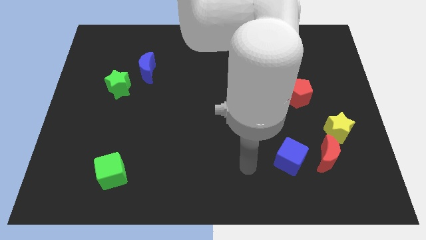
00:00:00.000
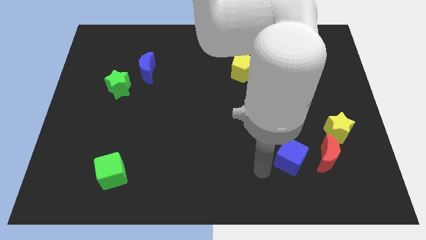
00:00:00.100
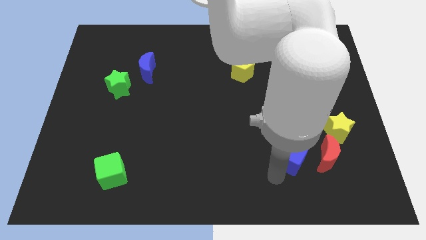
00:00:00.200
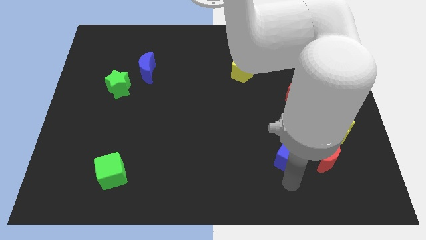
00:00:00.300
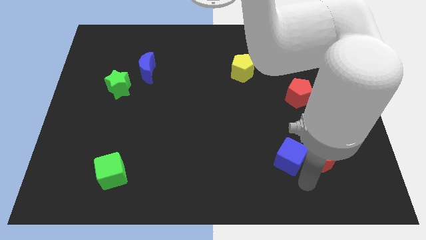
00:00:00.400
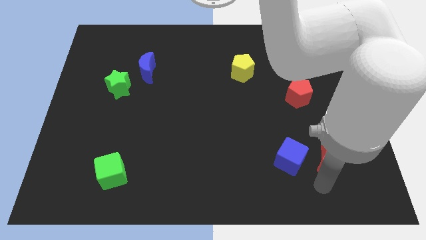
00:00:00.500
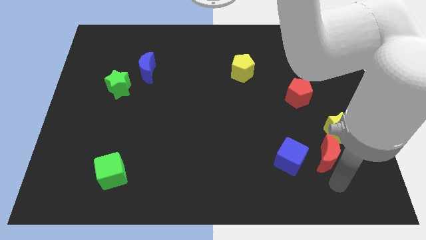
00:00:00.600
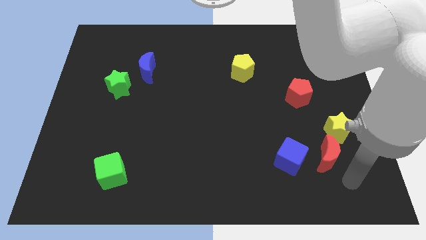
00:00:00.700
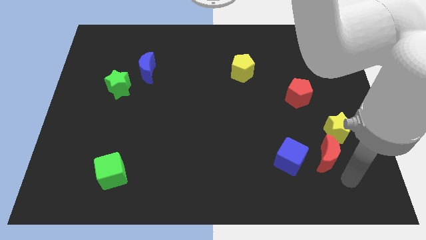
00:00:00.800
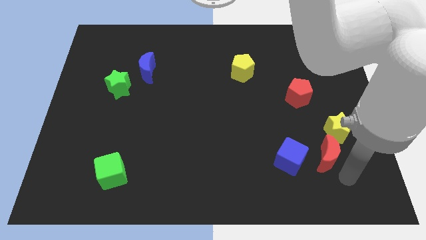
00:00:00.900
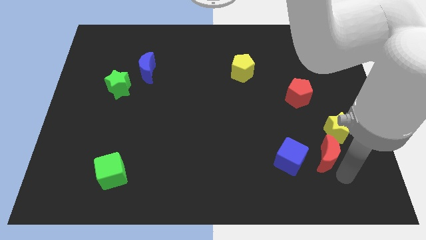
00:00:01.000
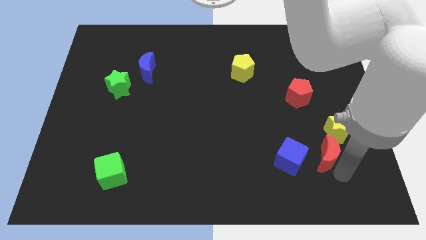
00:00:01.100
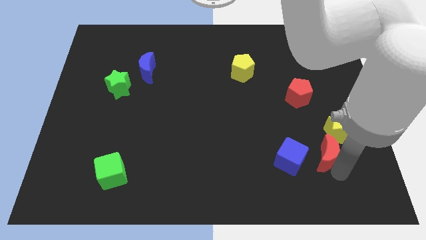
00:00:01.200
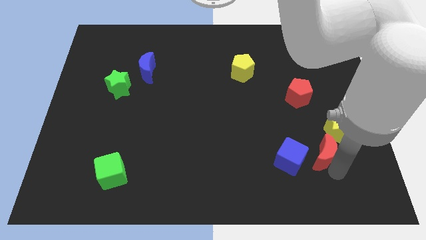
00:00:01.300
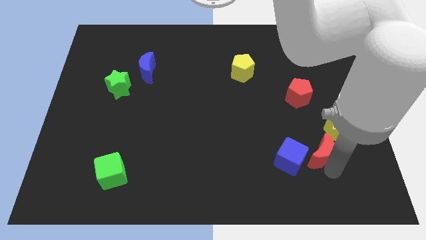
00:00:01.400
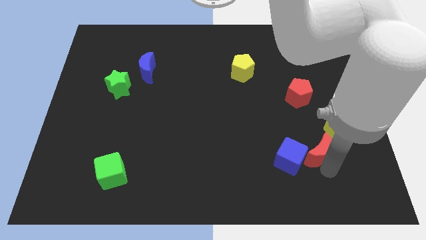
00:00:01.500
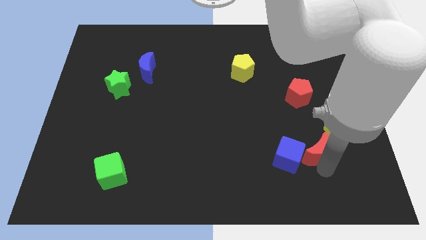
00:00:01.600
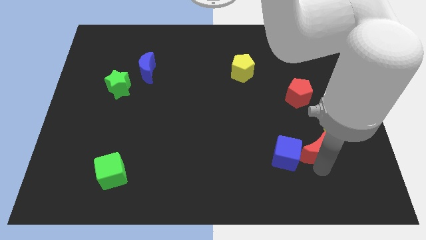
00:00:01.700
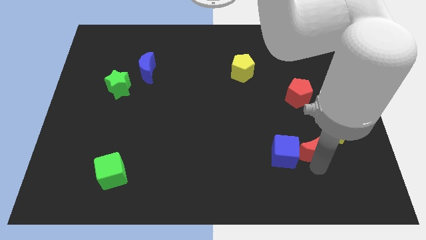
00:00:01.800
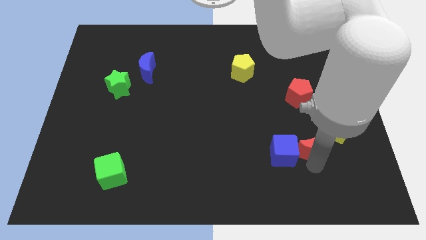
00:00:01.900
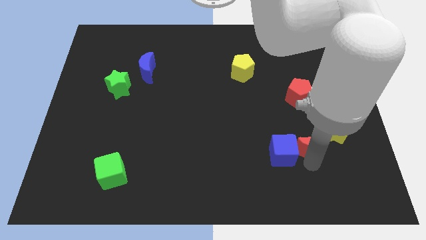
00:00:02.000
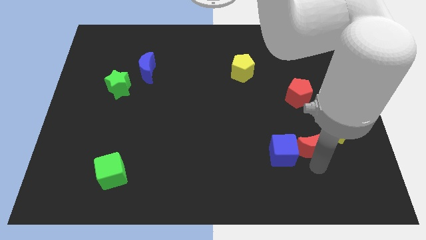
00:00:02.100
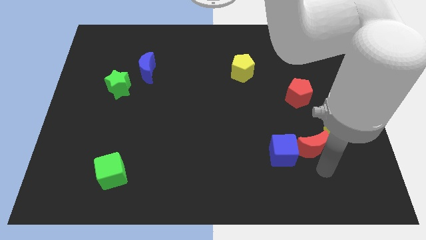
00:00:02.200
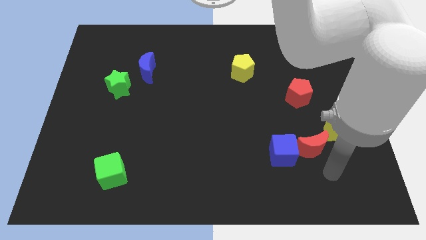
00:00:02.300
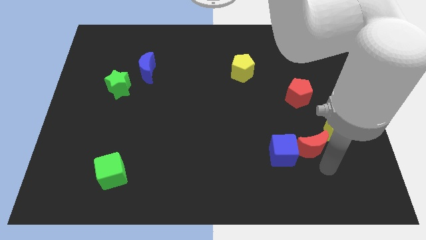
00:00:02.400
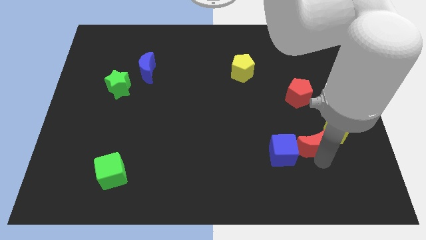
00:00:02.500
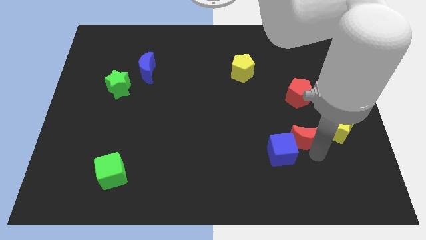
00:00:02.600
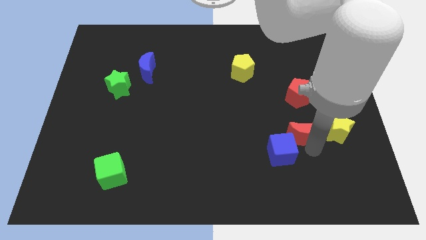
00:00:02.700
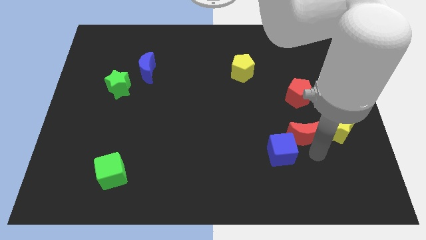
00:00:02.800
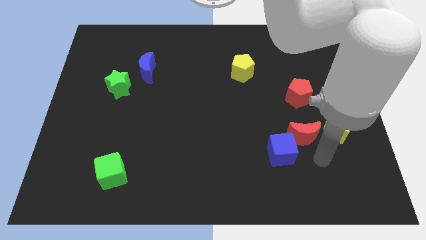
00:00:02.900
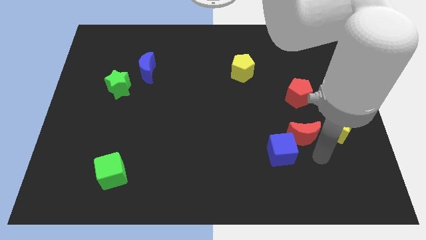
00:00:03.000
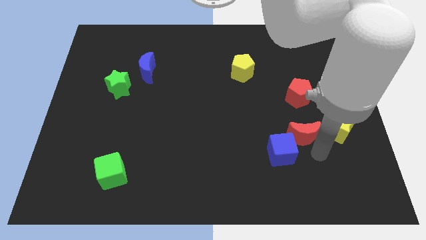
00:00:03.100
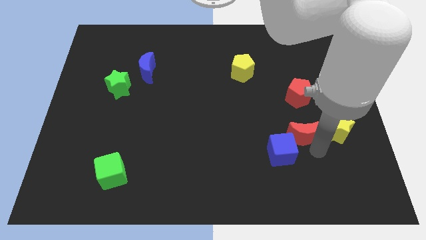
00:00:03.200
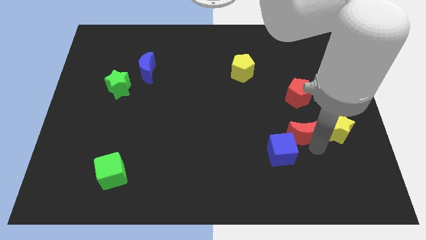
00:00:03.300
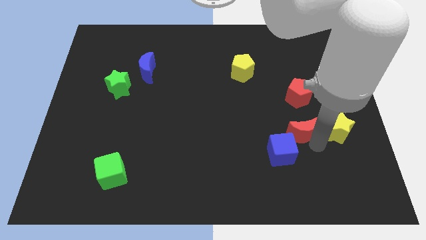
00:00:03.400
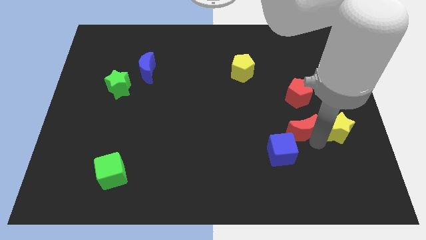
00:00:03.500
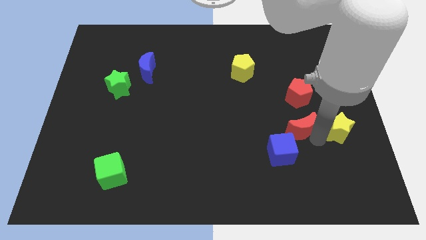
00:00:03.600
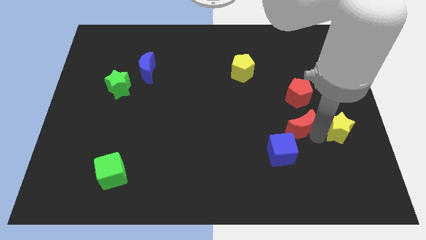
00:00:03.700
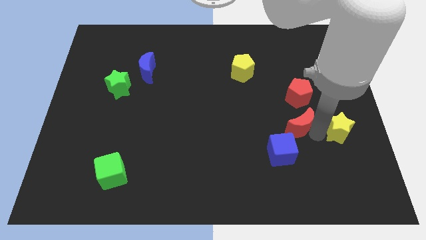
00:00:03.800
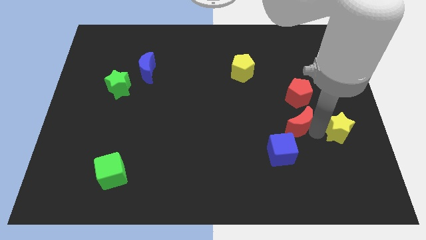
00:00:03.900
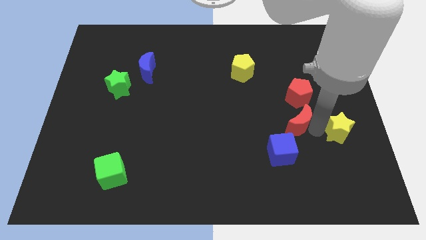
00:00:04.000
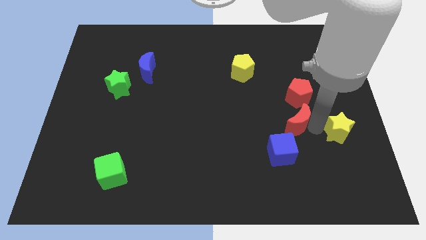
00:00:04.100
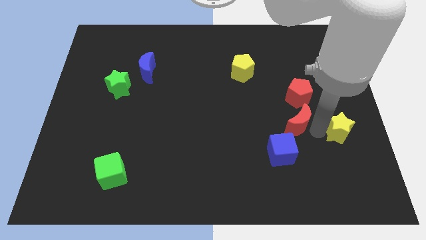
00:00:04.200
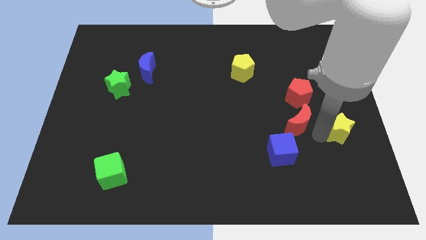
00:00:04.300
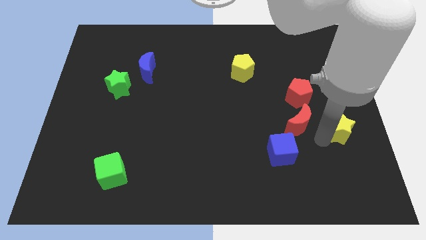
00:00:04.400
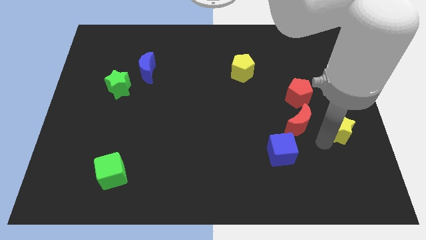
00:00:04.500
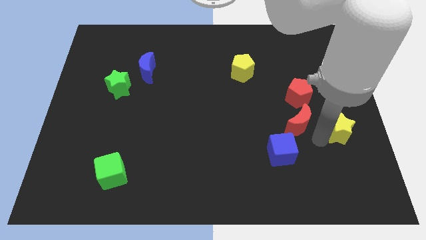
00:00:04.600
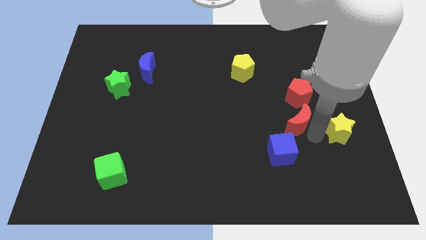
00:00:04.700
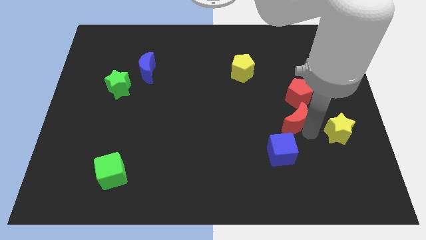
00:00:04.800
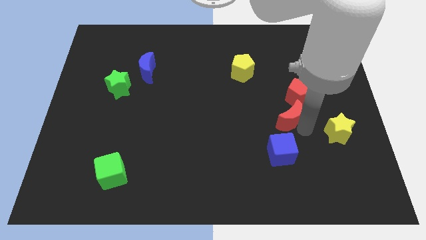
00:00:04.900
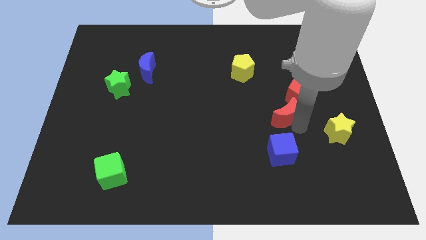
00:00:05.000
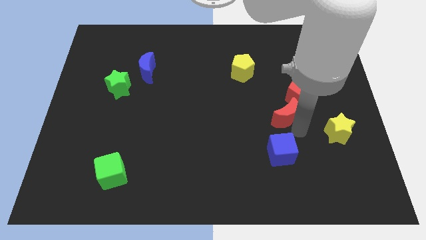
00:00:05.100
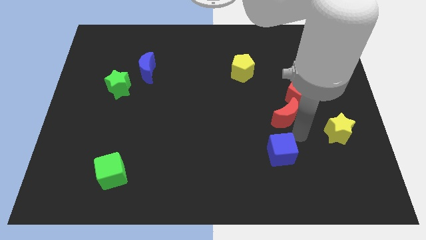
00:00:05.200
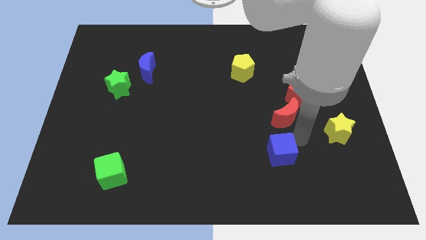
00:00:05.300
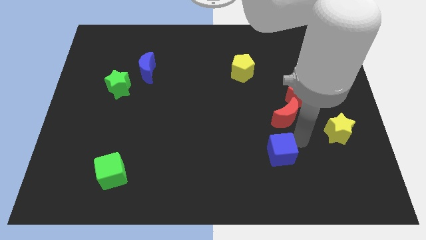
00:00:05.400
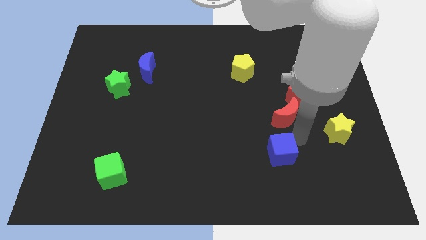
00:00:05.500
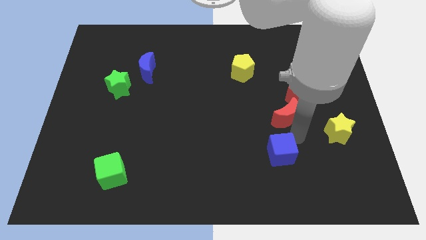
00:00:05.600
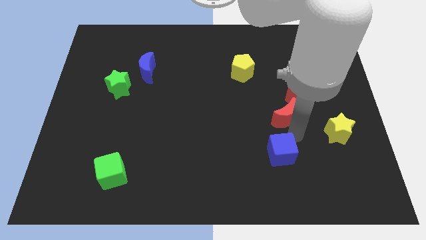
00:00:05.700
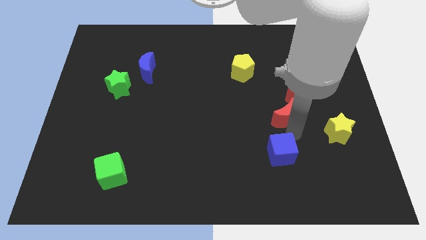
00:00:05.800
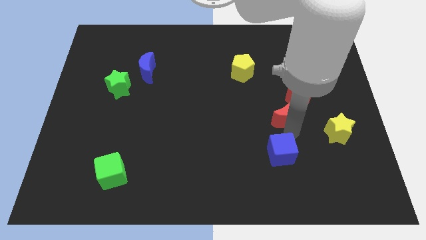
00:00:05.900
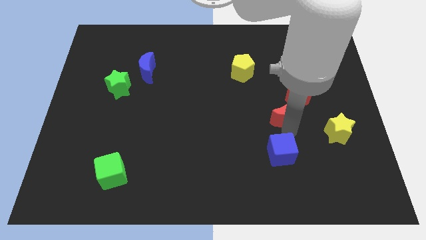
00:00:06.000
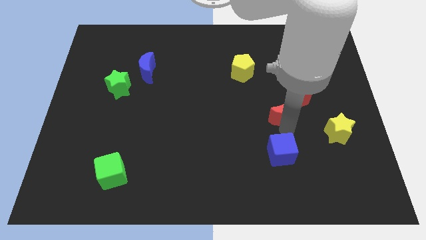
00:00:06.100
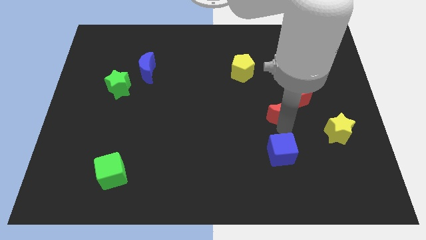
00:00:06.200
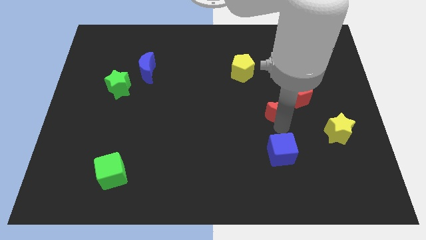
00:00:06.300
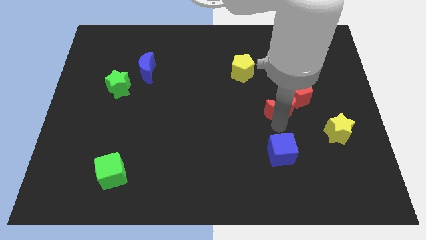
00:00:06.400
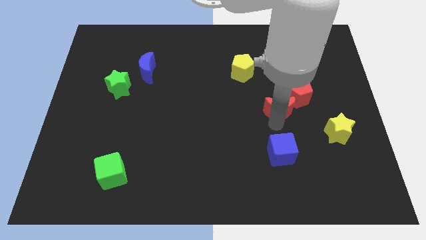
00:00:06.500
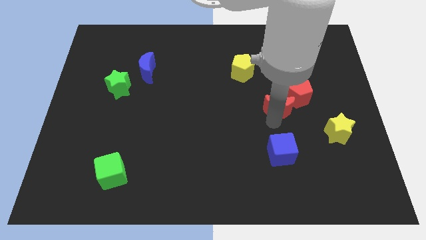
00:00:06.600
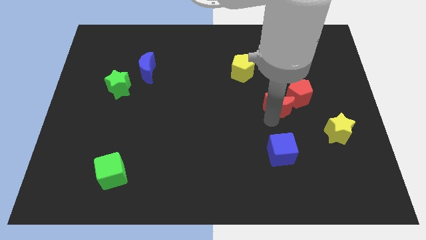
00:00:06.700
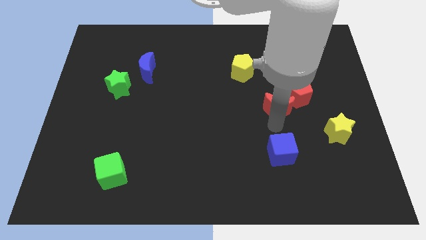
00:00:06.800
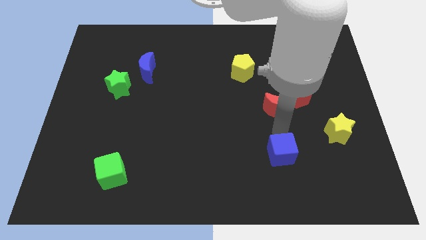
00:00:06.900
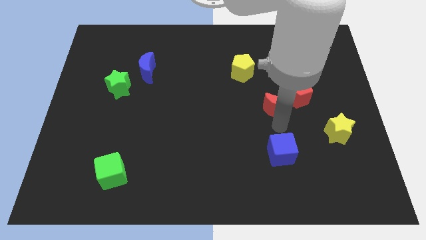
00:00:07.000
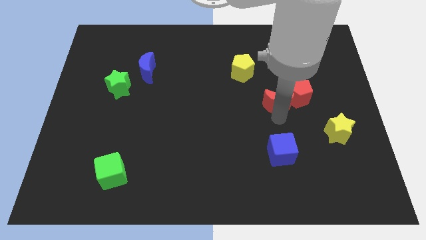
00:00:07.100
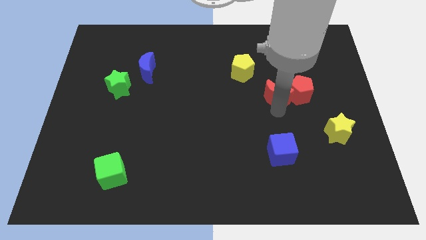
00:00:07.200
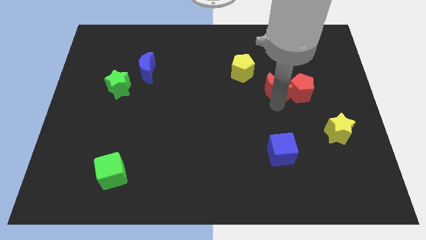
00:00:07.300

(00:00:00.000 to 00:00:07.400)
slide the red moon to the top left of the red pentagon
